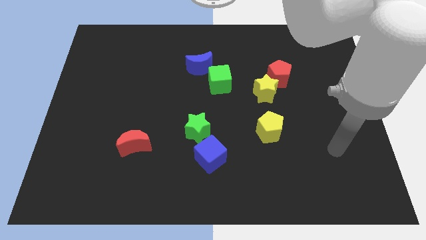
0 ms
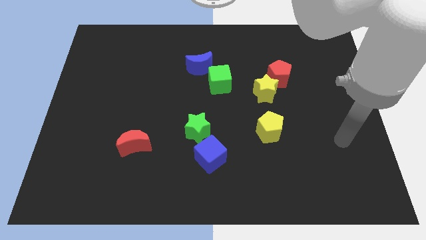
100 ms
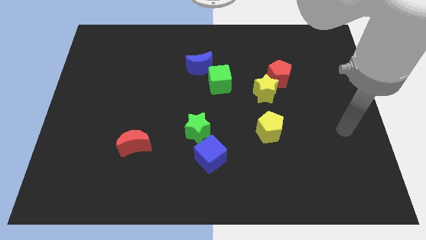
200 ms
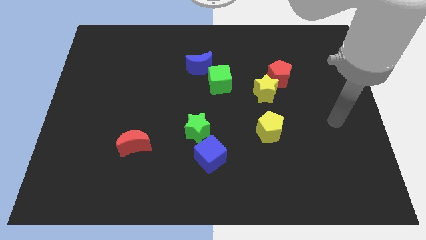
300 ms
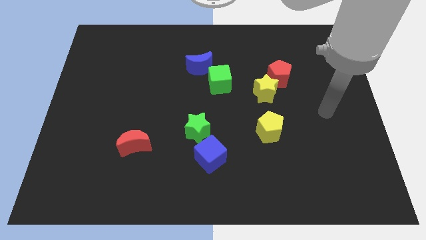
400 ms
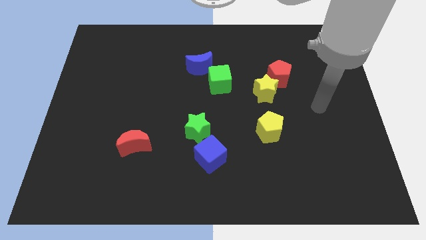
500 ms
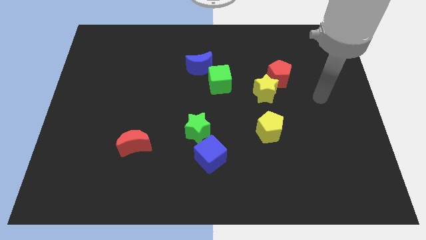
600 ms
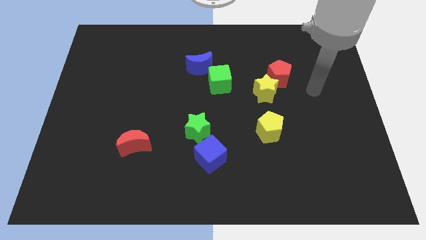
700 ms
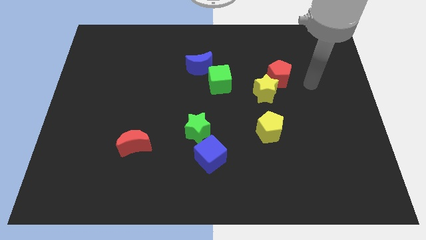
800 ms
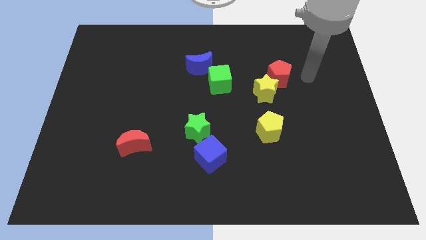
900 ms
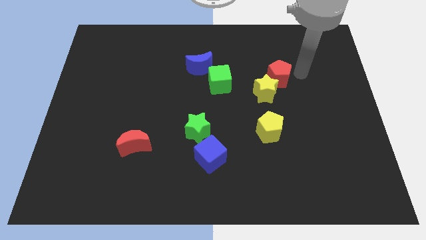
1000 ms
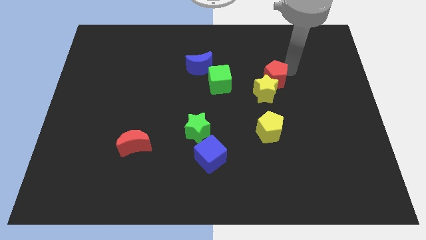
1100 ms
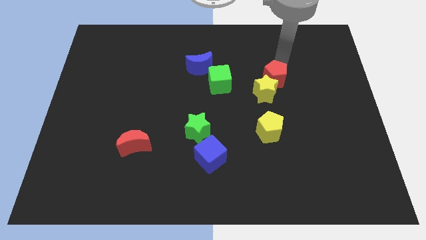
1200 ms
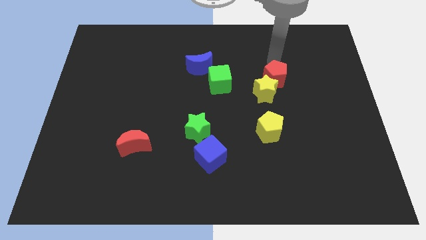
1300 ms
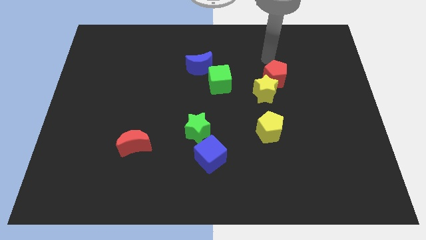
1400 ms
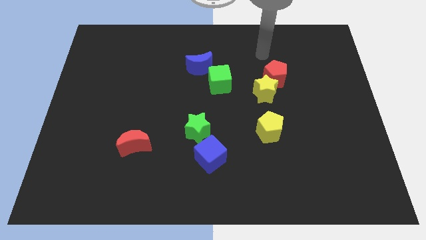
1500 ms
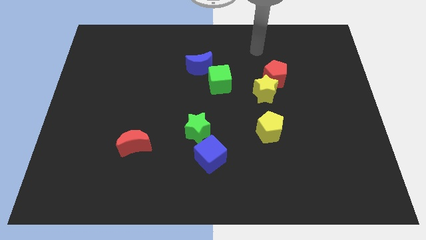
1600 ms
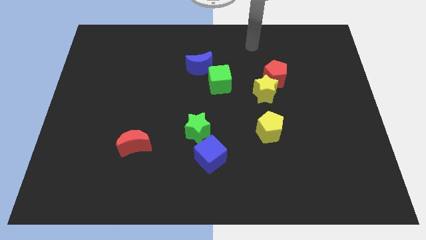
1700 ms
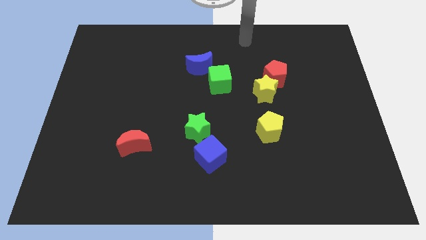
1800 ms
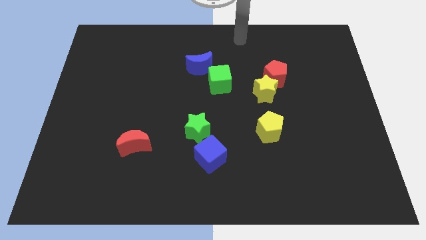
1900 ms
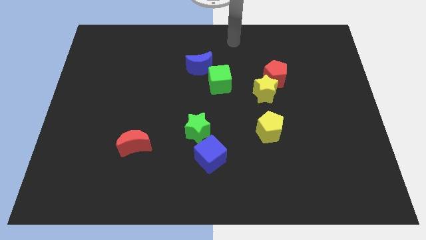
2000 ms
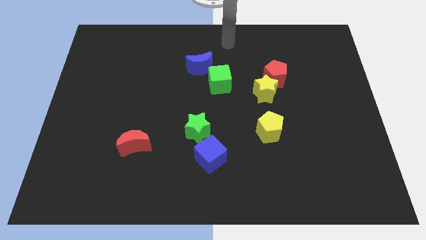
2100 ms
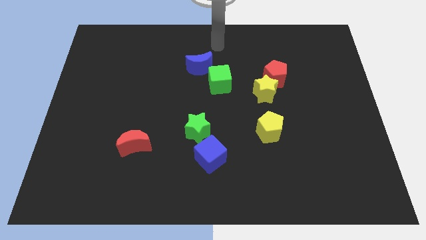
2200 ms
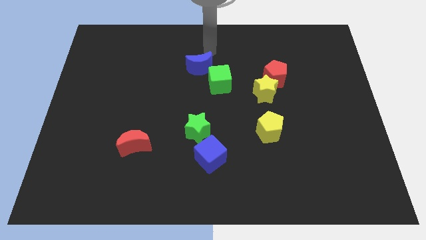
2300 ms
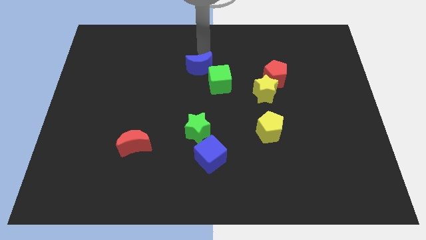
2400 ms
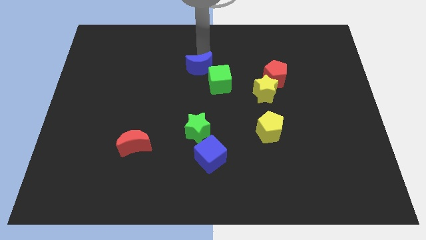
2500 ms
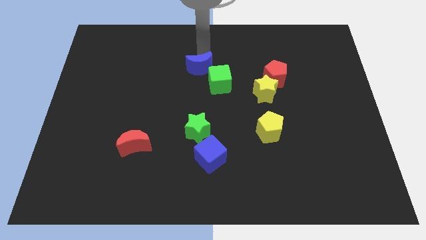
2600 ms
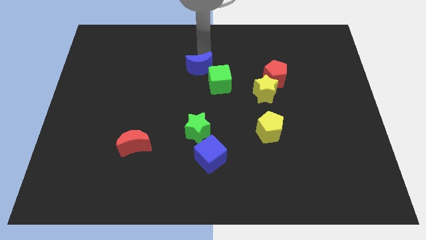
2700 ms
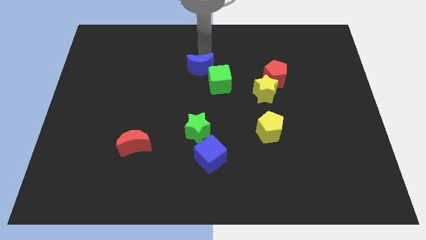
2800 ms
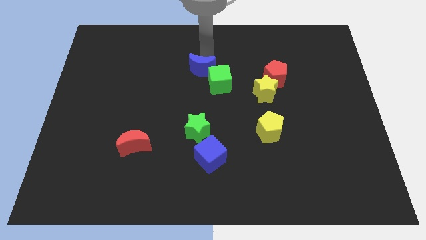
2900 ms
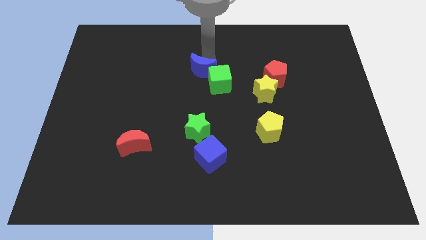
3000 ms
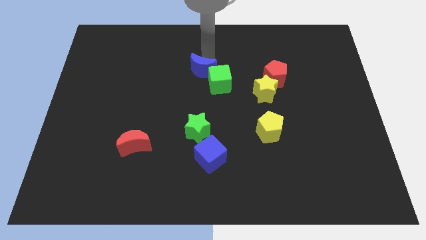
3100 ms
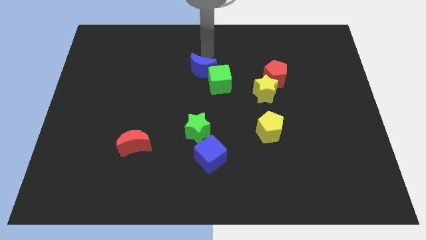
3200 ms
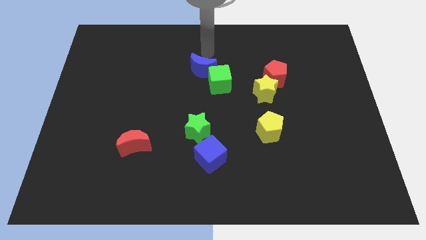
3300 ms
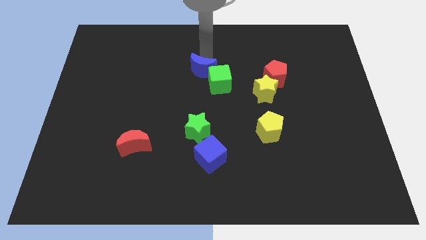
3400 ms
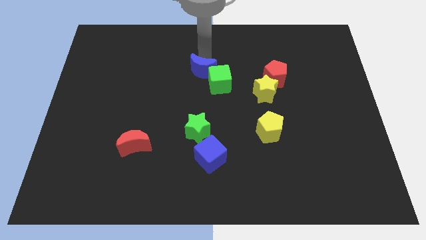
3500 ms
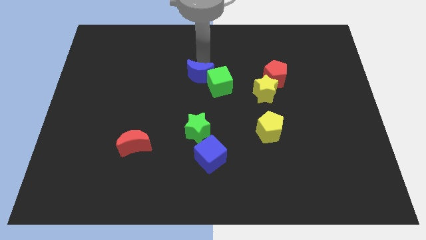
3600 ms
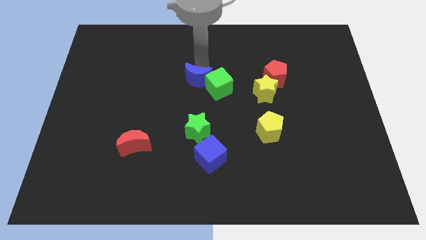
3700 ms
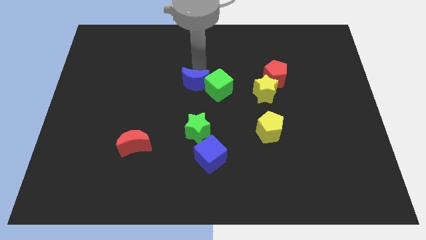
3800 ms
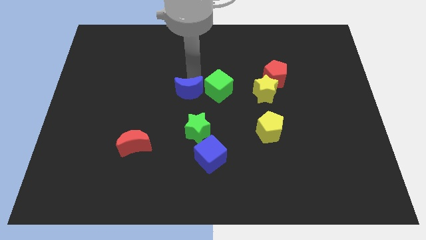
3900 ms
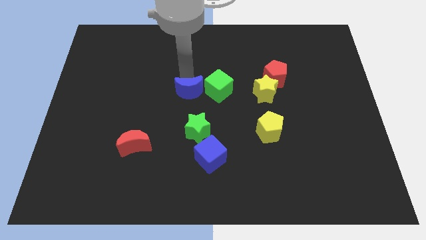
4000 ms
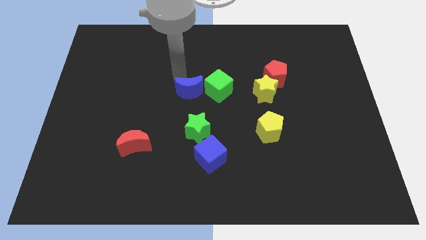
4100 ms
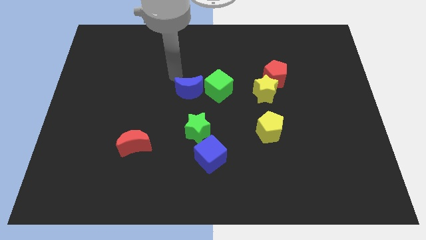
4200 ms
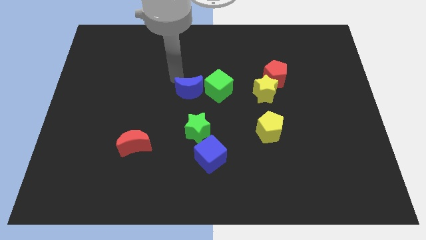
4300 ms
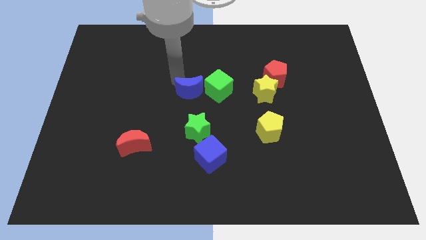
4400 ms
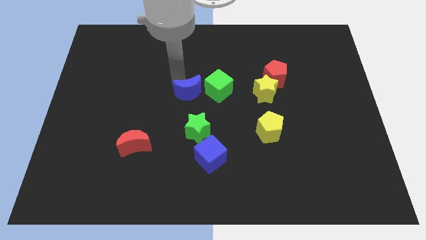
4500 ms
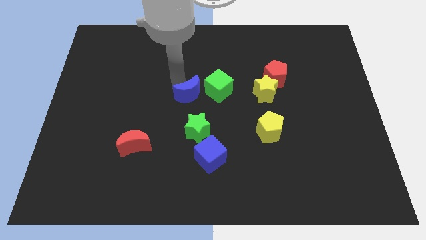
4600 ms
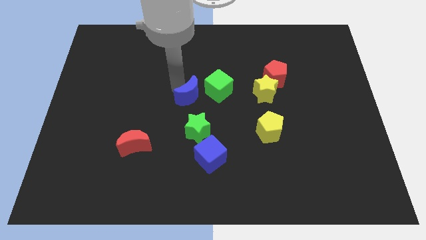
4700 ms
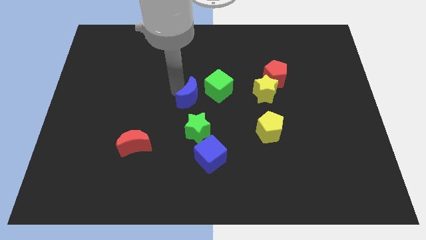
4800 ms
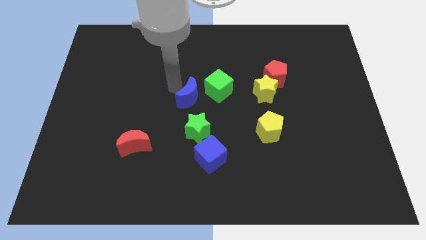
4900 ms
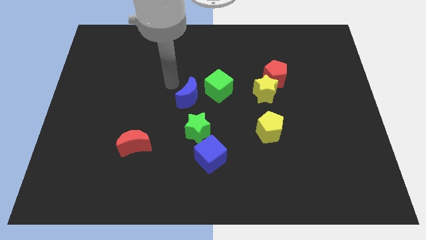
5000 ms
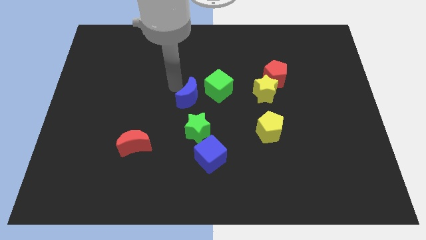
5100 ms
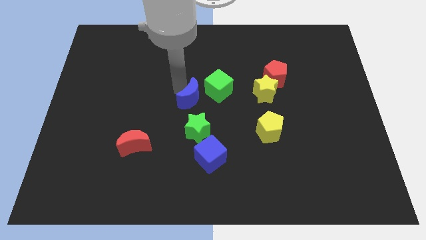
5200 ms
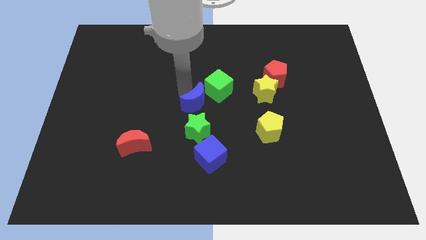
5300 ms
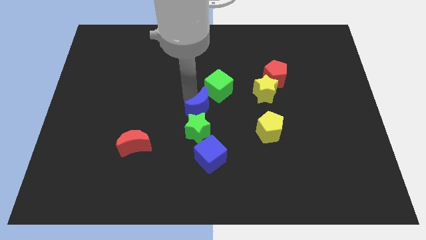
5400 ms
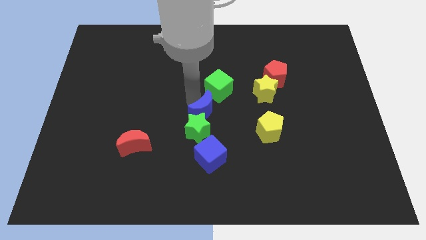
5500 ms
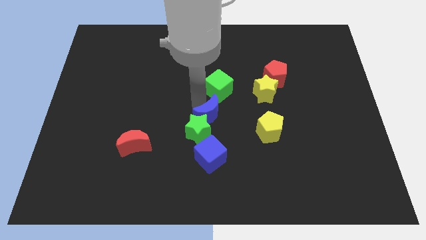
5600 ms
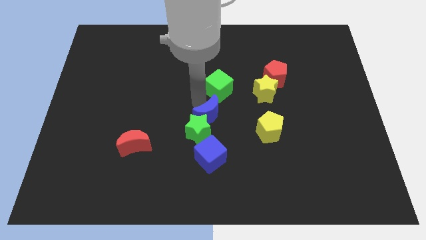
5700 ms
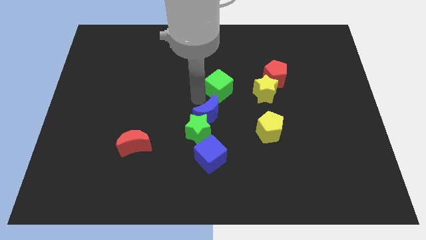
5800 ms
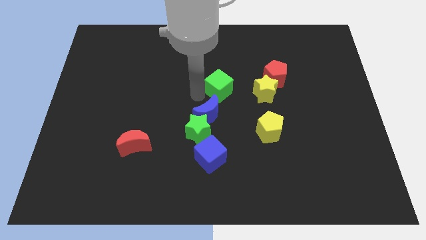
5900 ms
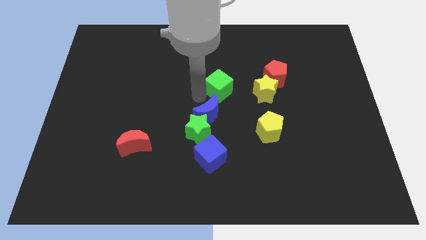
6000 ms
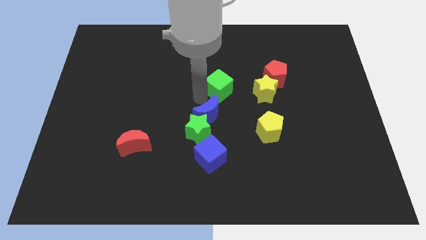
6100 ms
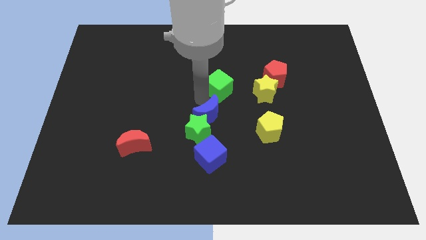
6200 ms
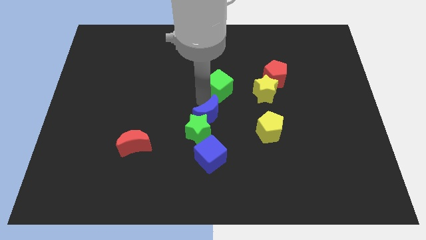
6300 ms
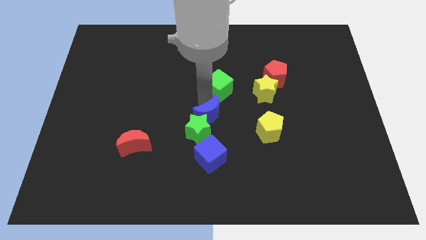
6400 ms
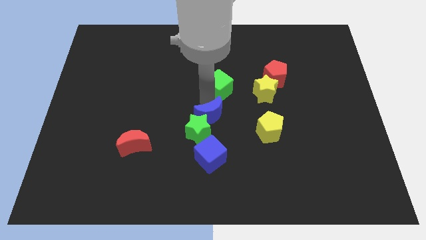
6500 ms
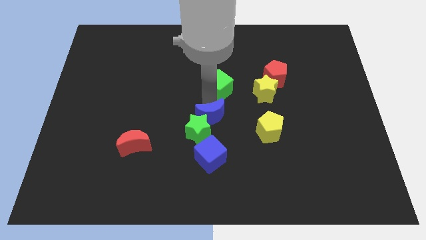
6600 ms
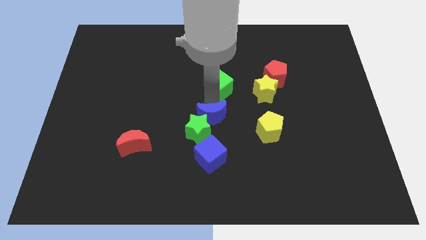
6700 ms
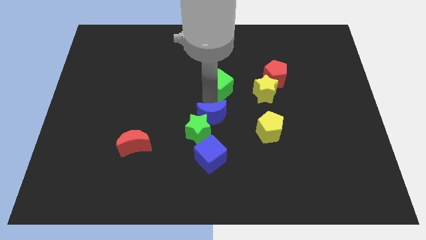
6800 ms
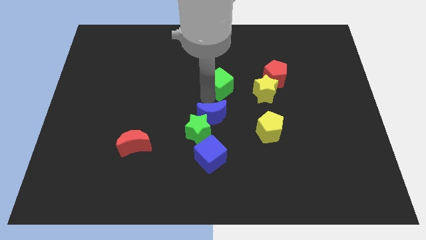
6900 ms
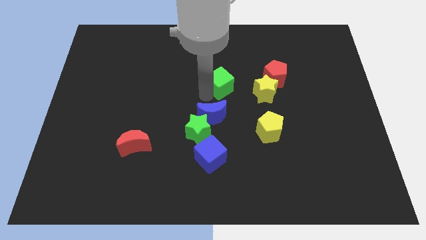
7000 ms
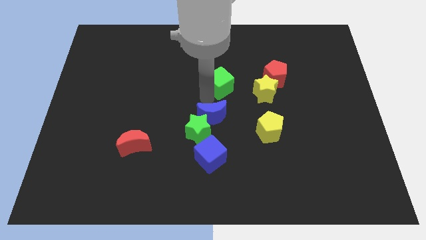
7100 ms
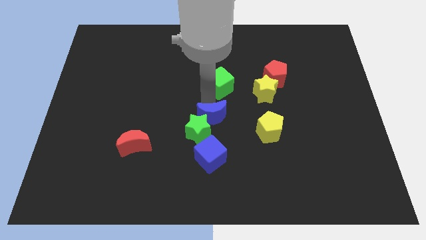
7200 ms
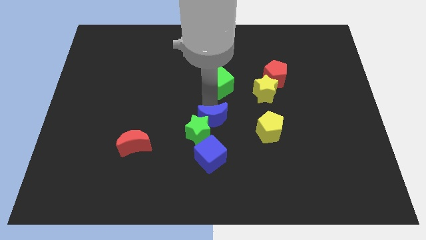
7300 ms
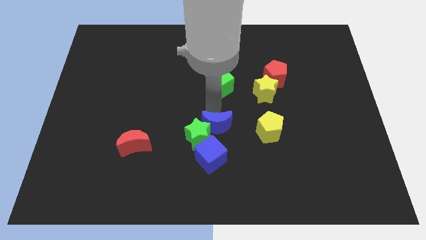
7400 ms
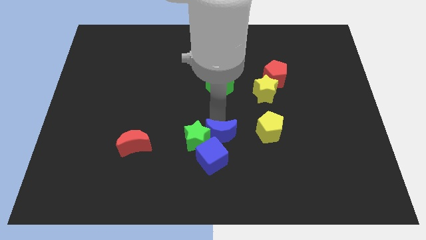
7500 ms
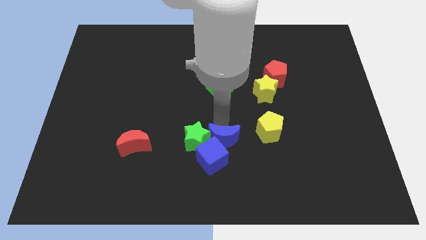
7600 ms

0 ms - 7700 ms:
push the blue moon to the blue cube
